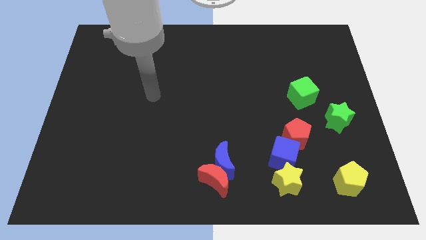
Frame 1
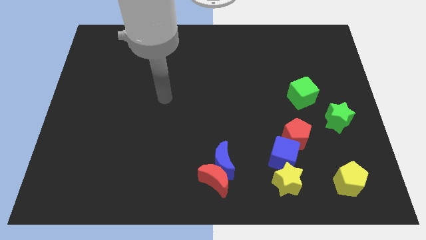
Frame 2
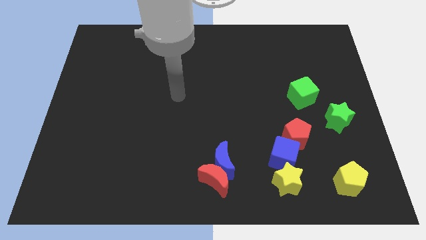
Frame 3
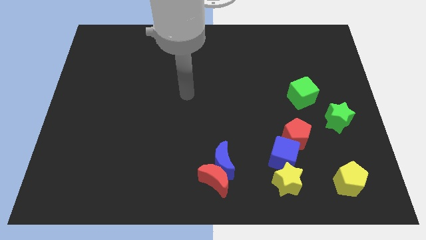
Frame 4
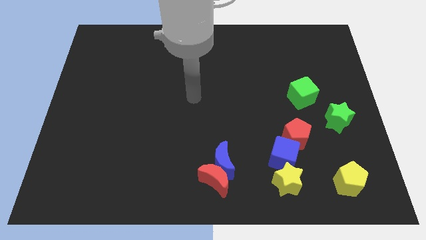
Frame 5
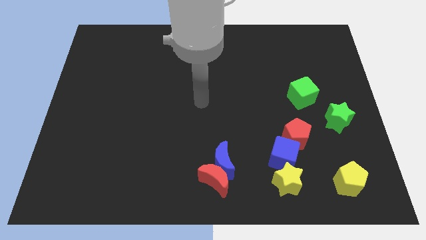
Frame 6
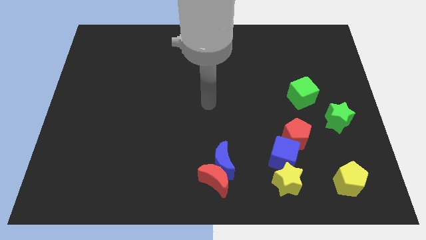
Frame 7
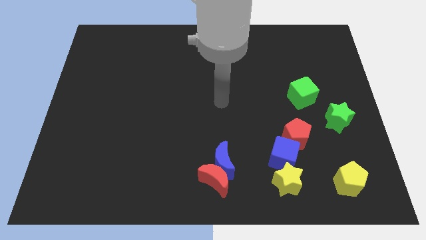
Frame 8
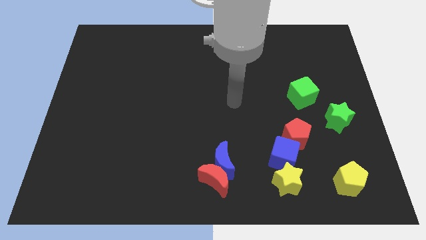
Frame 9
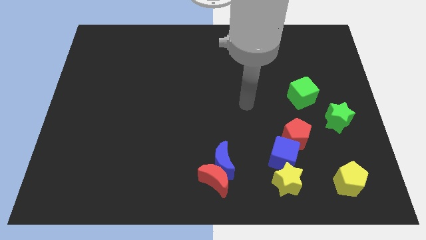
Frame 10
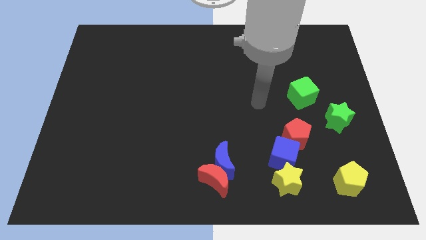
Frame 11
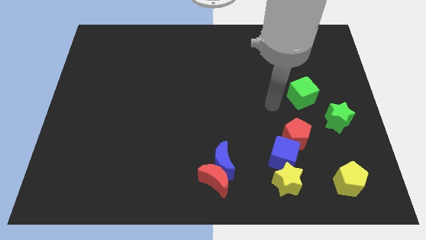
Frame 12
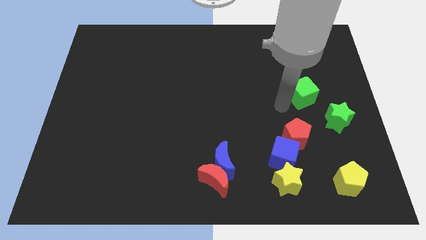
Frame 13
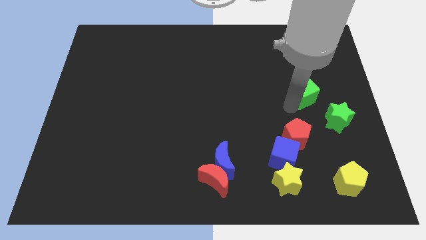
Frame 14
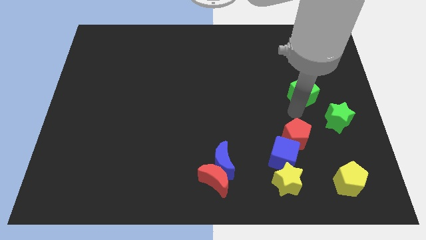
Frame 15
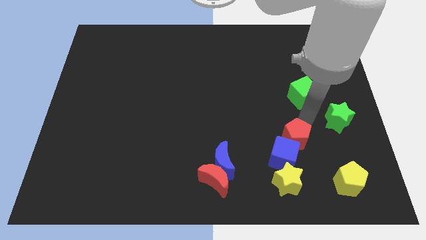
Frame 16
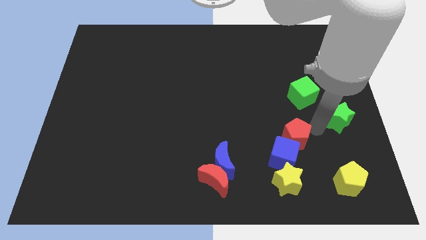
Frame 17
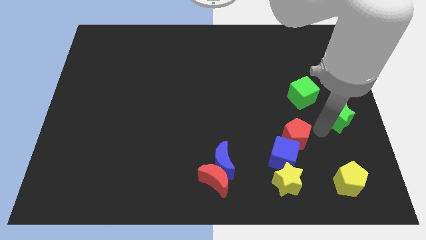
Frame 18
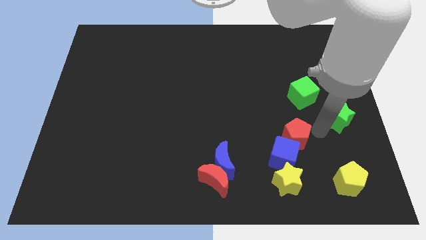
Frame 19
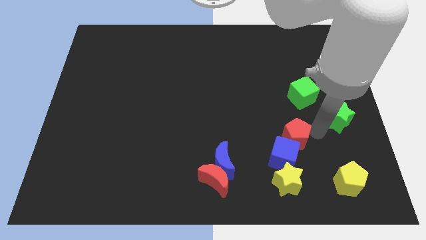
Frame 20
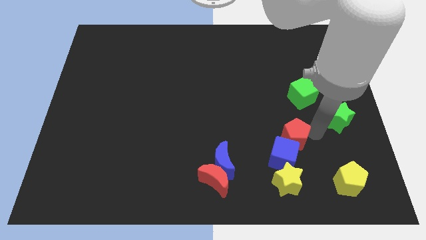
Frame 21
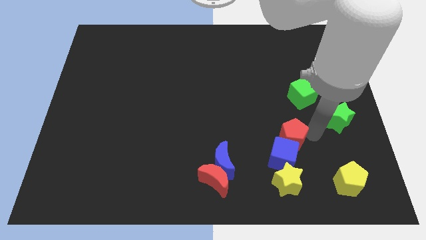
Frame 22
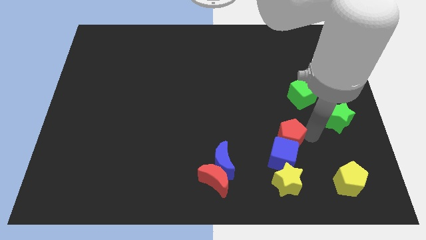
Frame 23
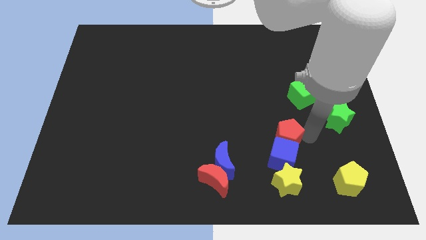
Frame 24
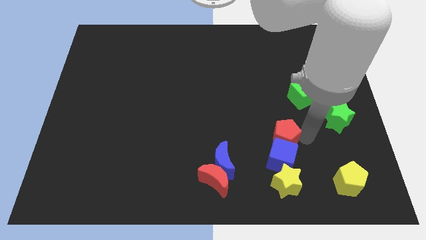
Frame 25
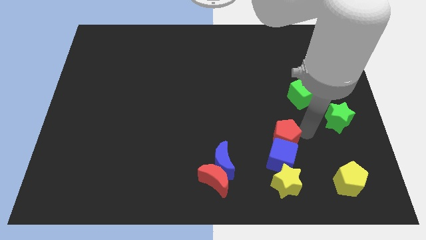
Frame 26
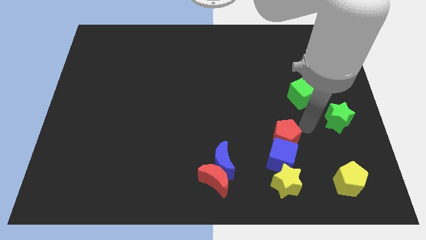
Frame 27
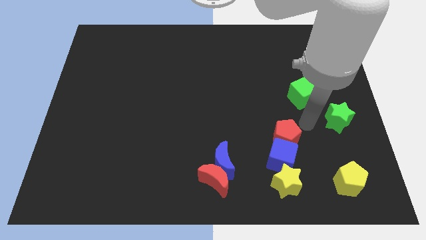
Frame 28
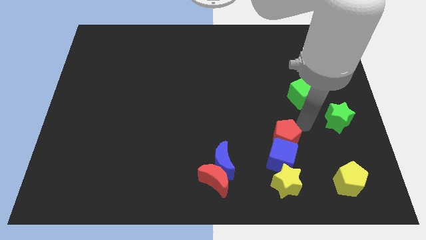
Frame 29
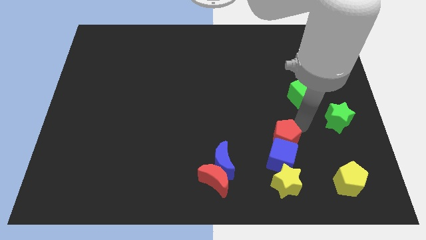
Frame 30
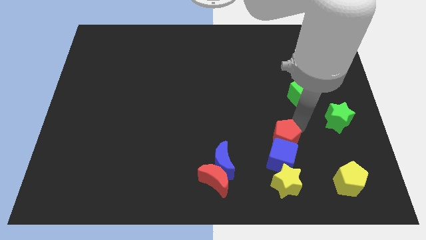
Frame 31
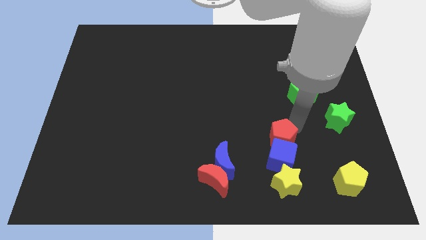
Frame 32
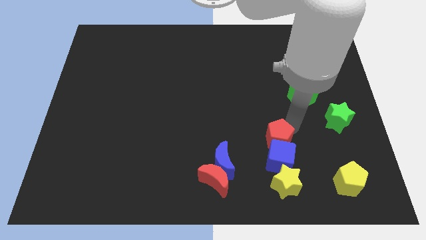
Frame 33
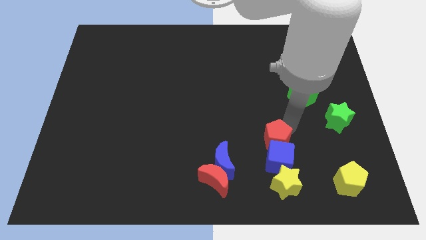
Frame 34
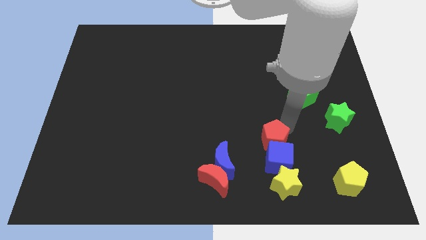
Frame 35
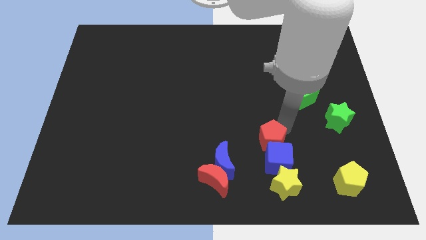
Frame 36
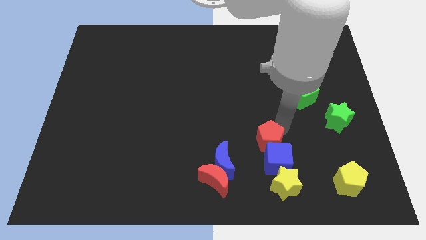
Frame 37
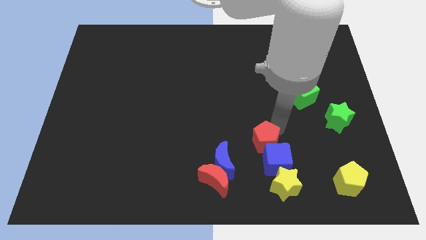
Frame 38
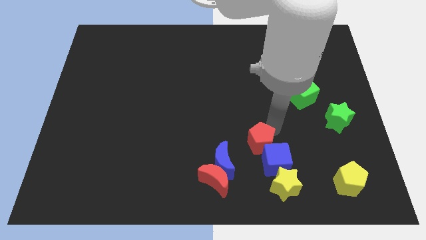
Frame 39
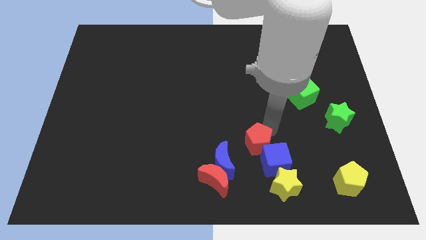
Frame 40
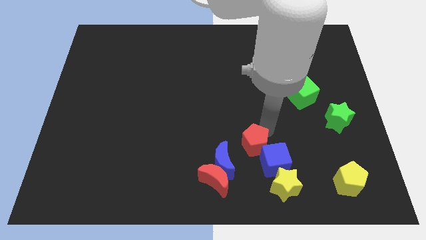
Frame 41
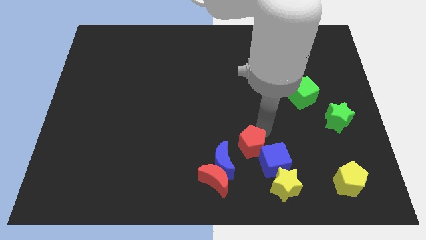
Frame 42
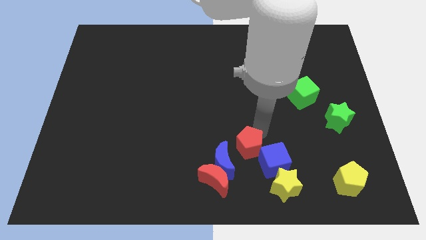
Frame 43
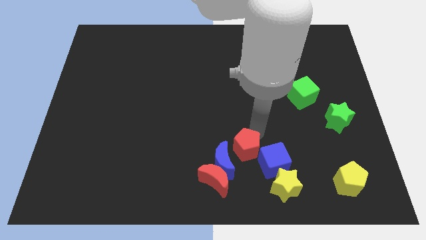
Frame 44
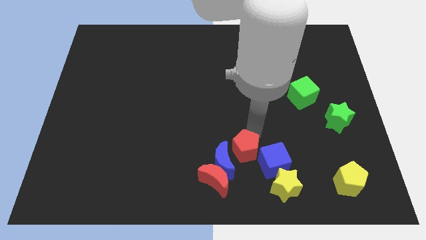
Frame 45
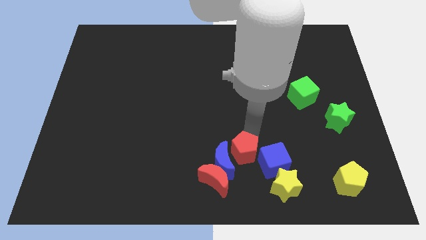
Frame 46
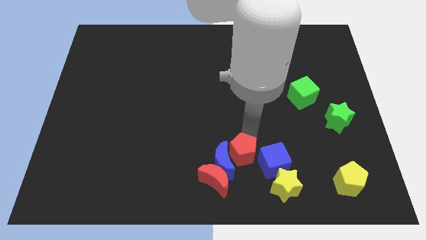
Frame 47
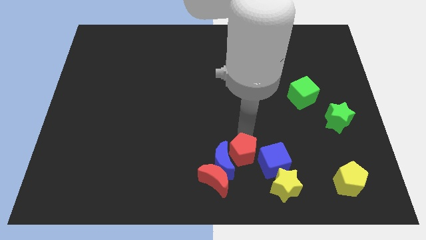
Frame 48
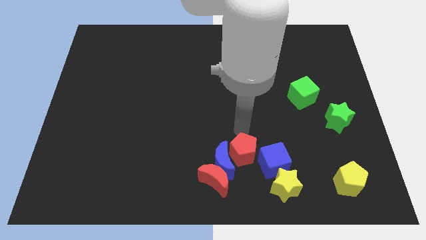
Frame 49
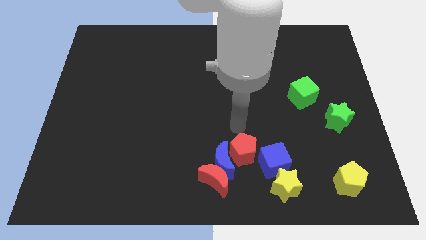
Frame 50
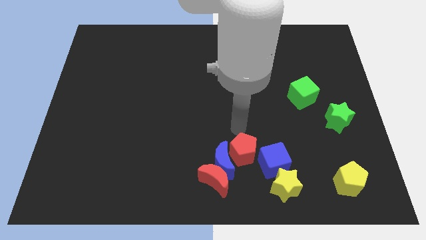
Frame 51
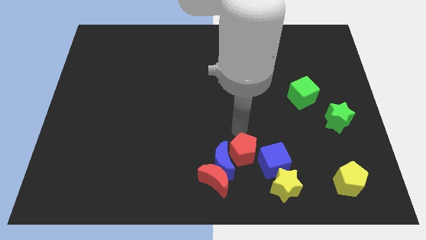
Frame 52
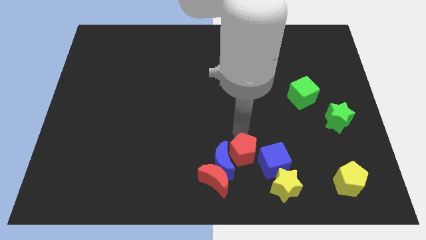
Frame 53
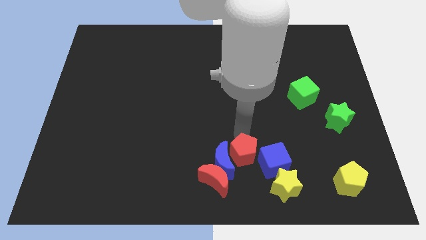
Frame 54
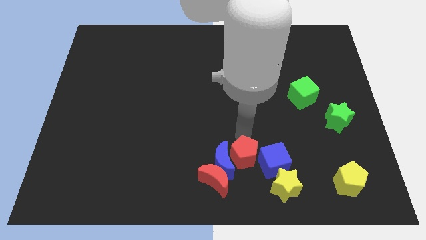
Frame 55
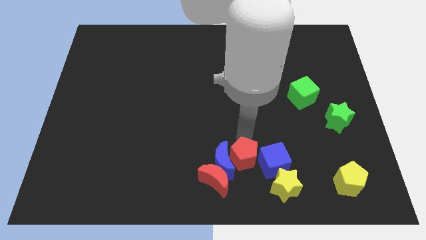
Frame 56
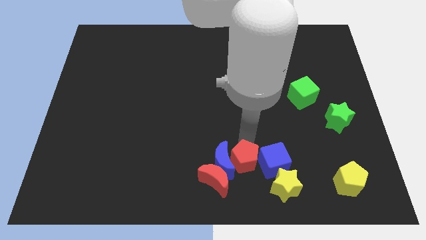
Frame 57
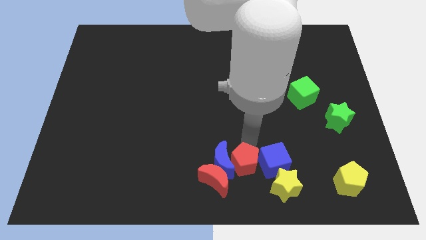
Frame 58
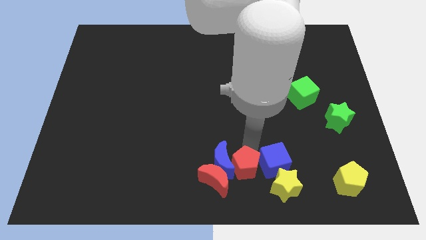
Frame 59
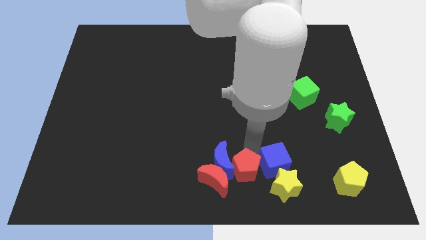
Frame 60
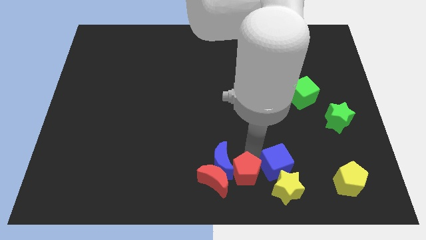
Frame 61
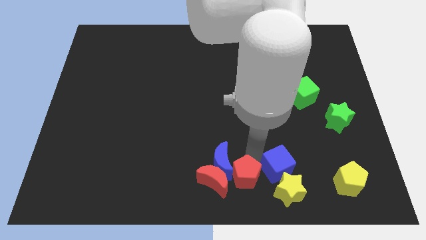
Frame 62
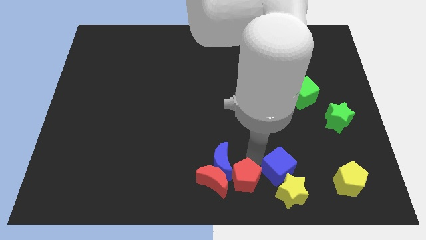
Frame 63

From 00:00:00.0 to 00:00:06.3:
put the red pentagon towards the red moon

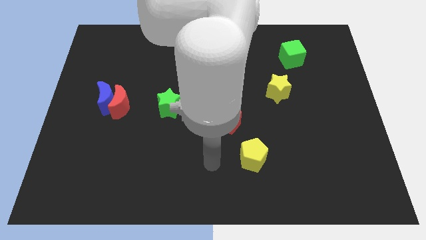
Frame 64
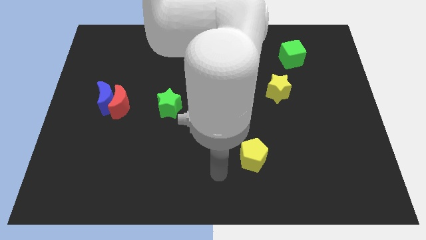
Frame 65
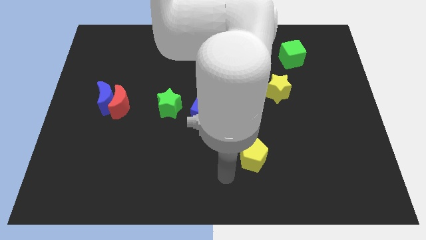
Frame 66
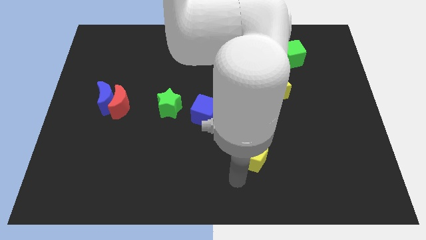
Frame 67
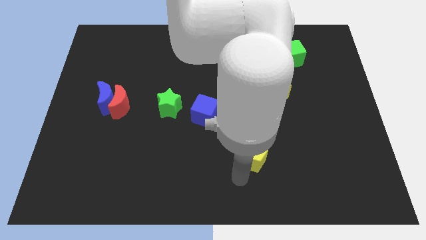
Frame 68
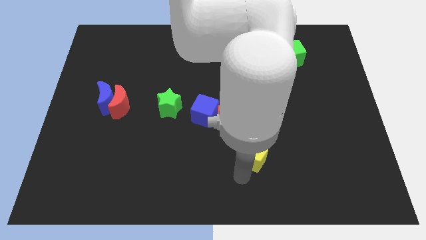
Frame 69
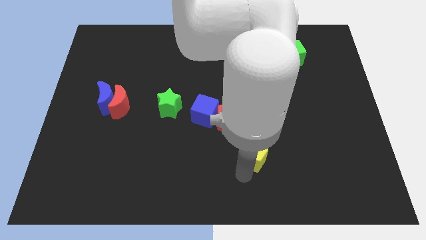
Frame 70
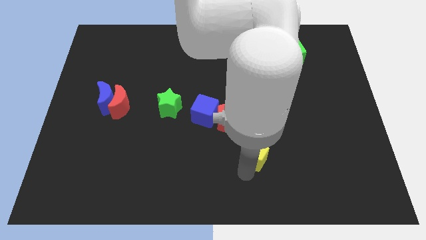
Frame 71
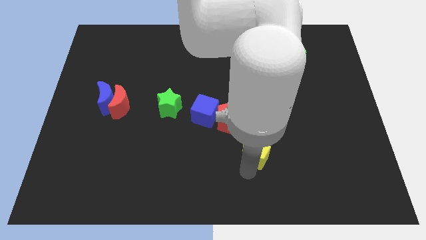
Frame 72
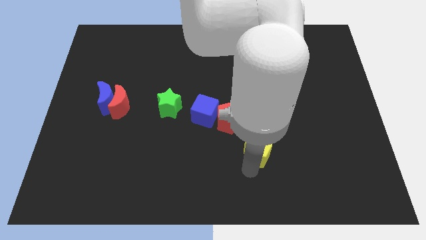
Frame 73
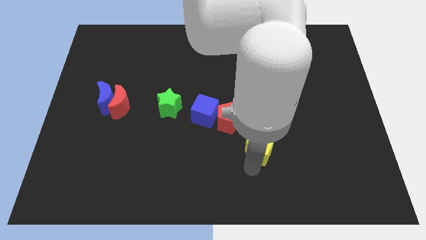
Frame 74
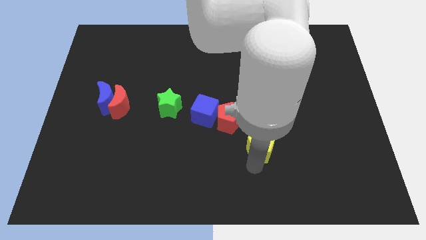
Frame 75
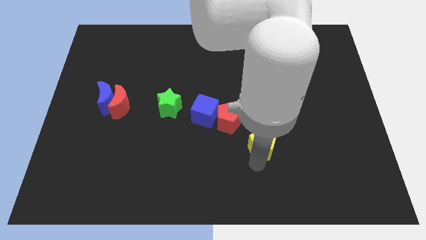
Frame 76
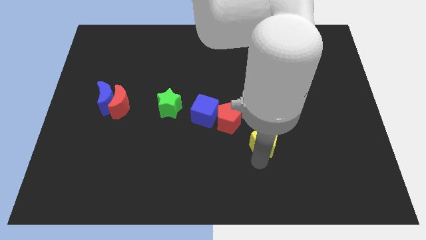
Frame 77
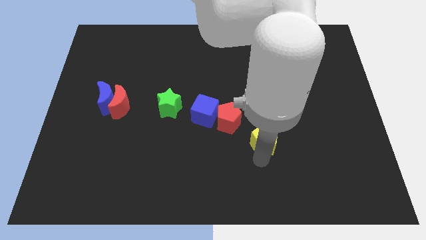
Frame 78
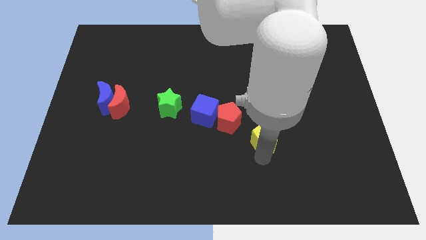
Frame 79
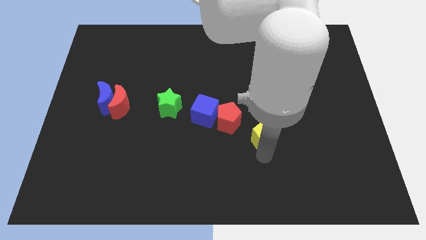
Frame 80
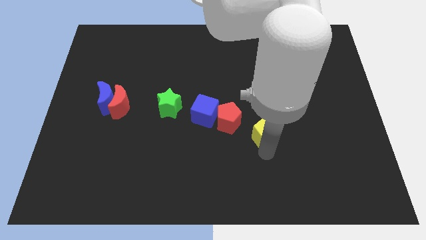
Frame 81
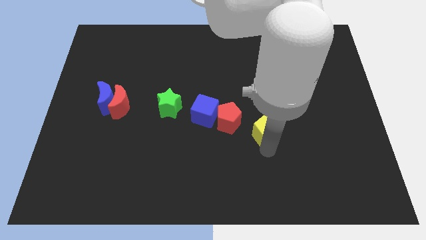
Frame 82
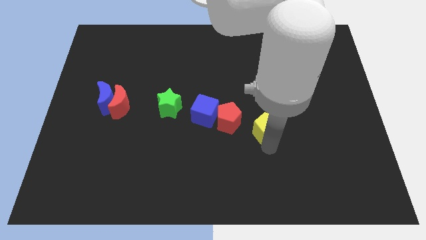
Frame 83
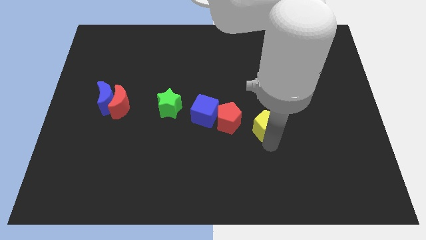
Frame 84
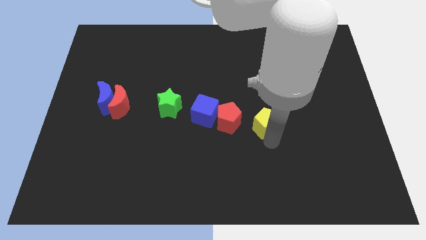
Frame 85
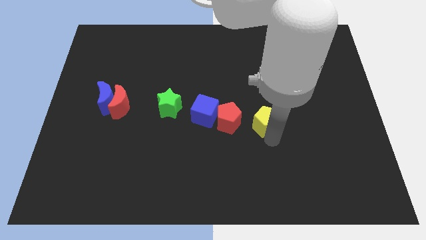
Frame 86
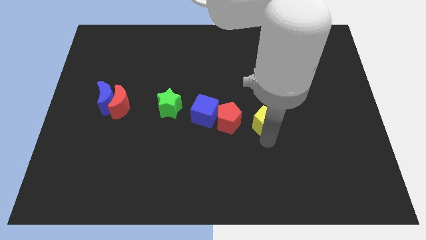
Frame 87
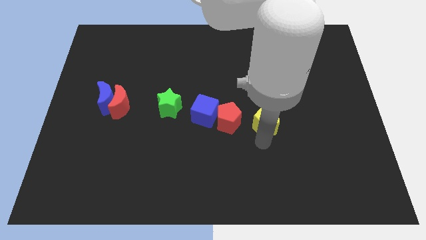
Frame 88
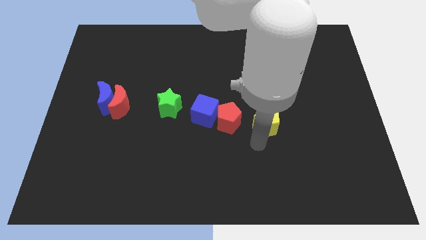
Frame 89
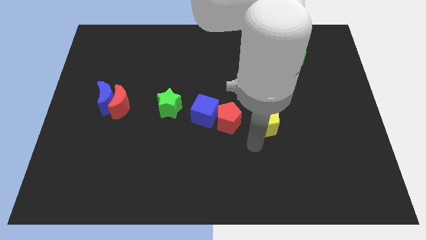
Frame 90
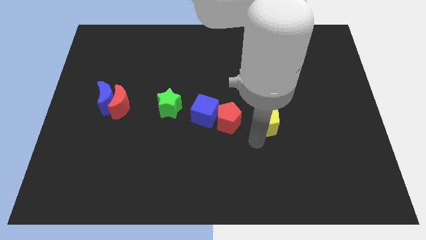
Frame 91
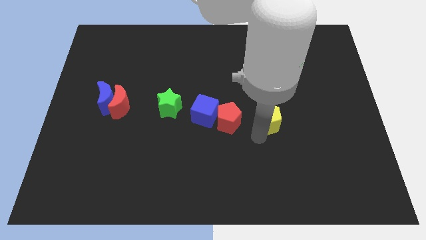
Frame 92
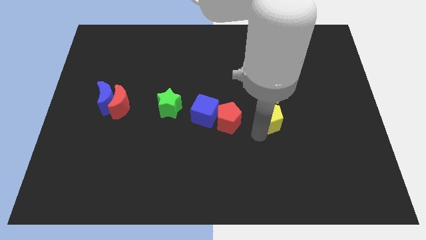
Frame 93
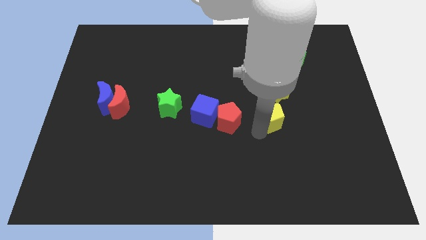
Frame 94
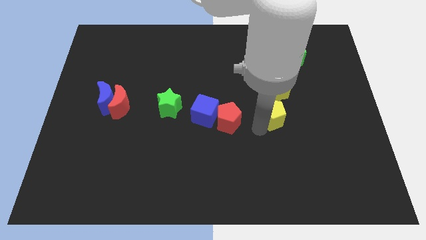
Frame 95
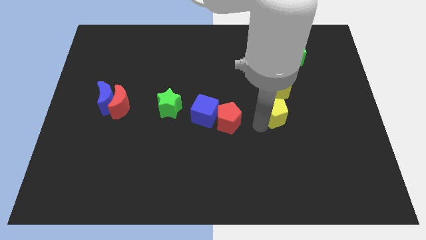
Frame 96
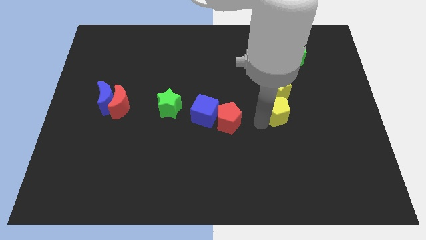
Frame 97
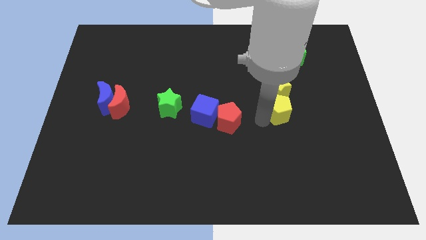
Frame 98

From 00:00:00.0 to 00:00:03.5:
slide the yellow pentagon next to the yellow star
